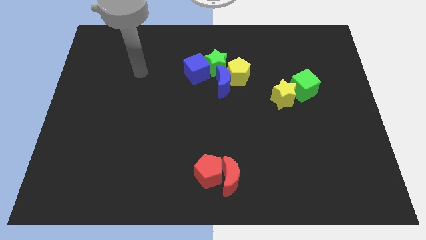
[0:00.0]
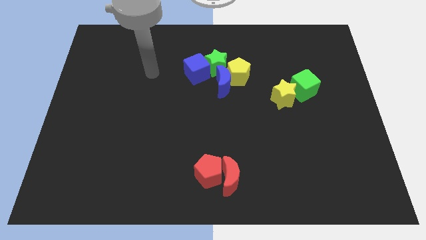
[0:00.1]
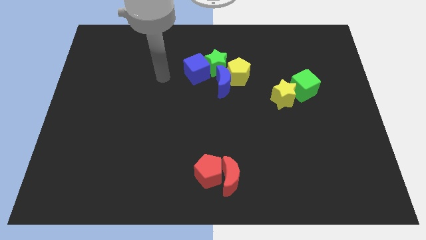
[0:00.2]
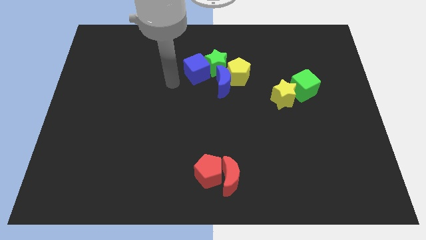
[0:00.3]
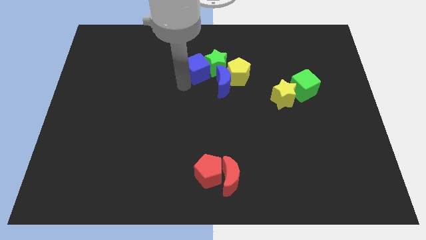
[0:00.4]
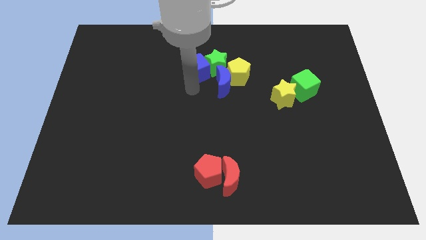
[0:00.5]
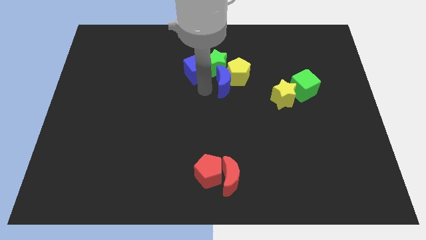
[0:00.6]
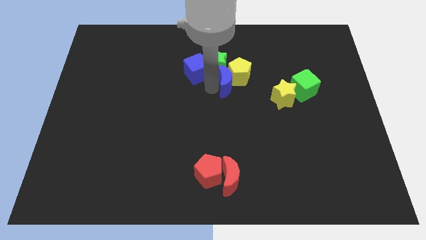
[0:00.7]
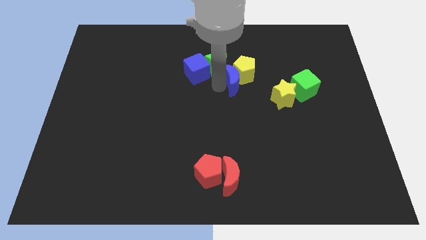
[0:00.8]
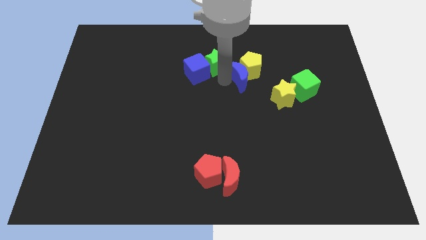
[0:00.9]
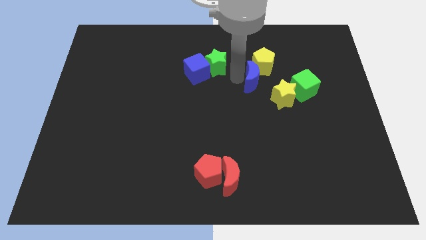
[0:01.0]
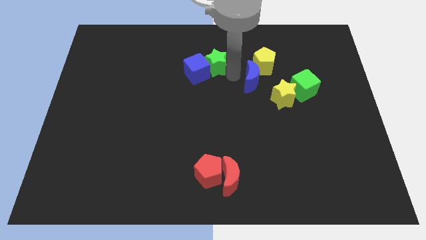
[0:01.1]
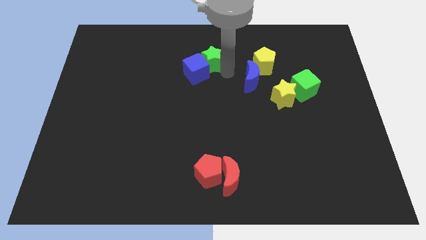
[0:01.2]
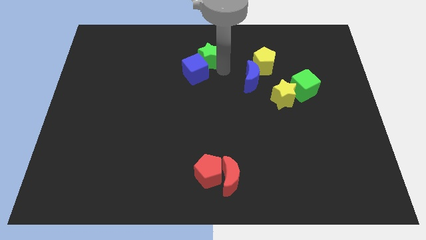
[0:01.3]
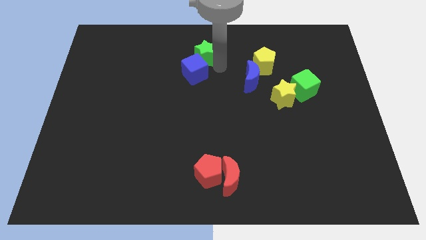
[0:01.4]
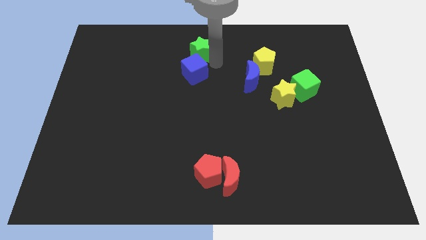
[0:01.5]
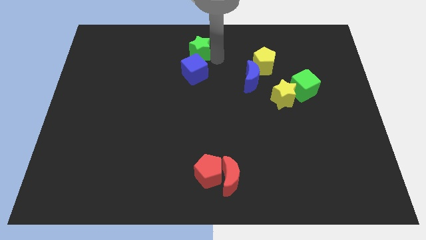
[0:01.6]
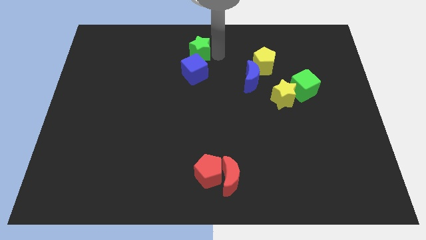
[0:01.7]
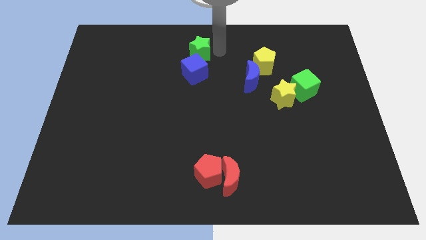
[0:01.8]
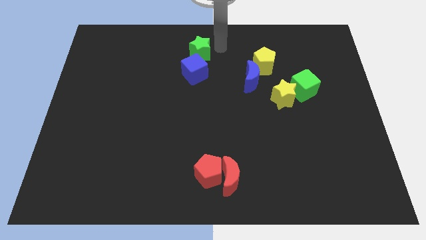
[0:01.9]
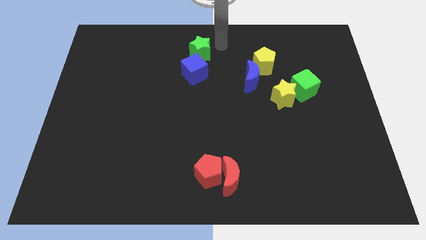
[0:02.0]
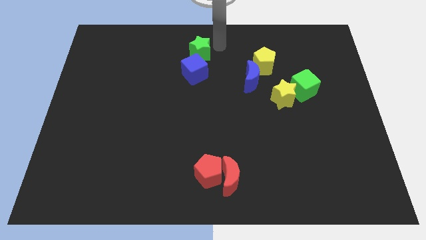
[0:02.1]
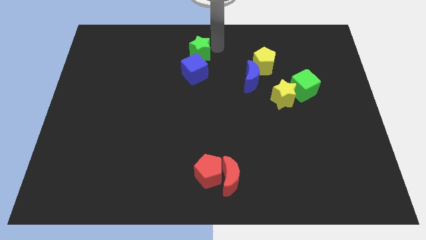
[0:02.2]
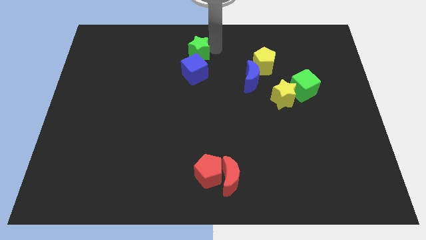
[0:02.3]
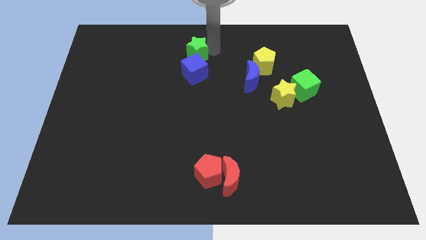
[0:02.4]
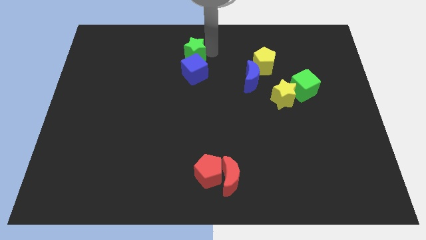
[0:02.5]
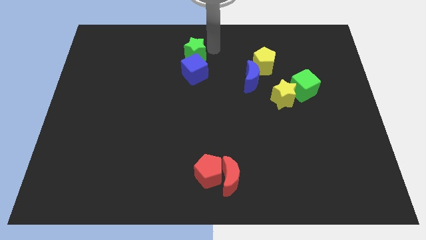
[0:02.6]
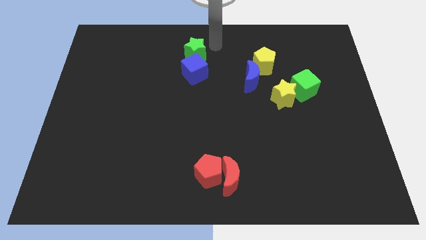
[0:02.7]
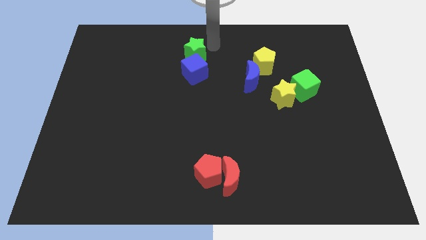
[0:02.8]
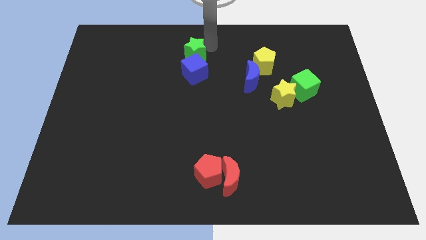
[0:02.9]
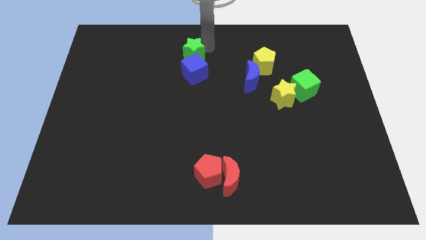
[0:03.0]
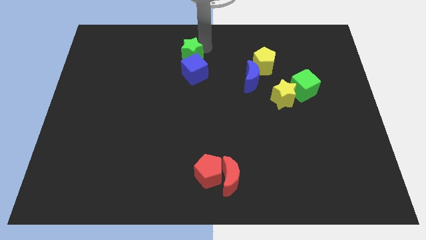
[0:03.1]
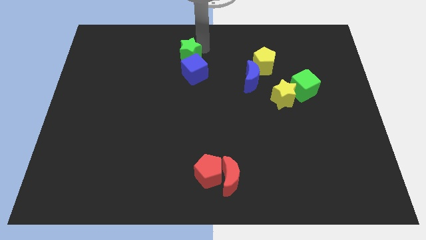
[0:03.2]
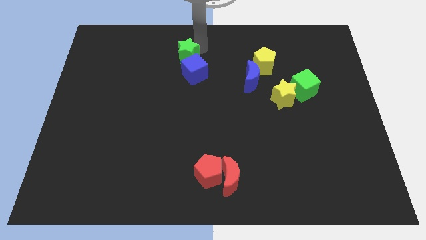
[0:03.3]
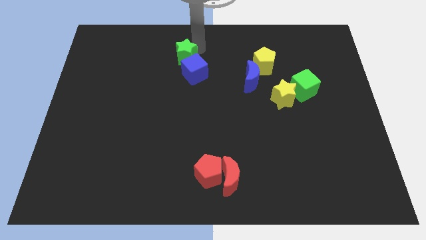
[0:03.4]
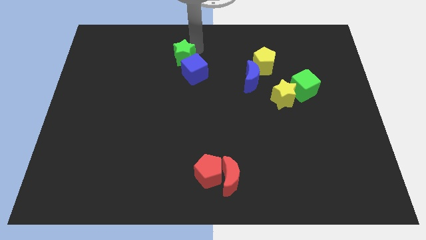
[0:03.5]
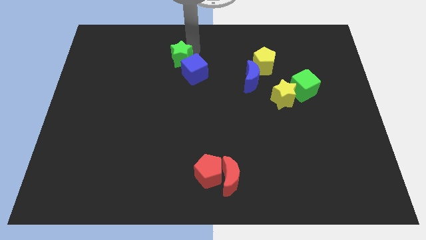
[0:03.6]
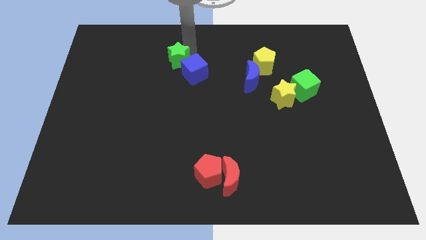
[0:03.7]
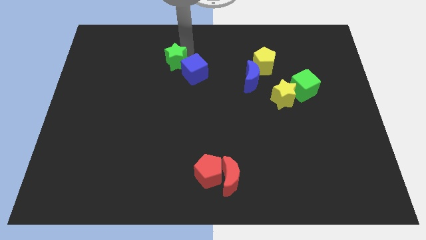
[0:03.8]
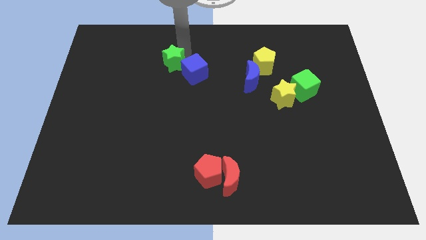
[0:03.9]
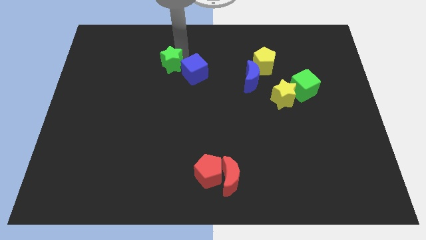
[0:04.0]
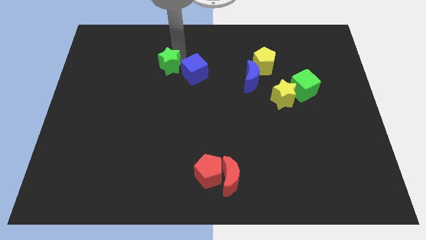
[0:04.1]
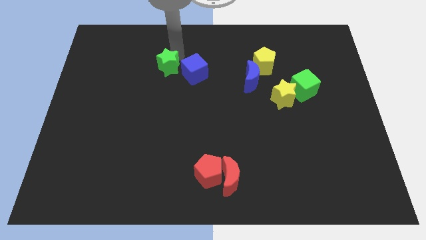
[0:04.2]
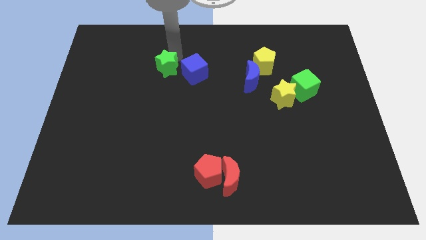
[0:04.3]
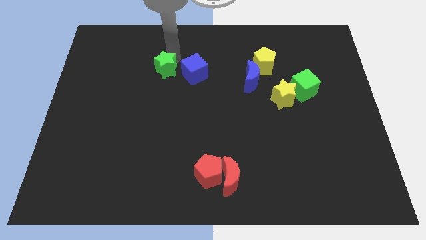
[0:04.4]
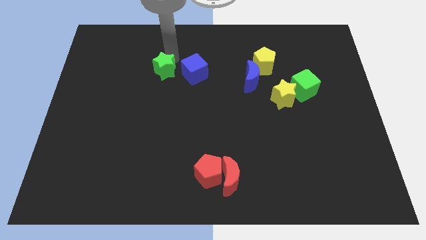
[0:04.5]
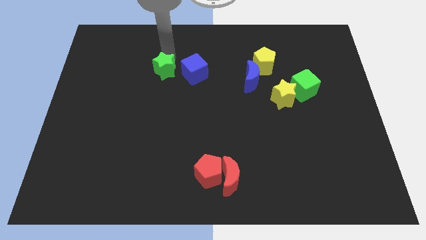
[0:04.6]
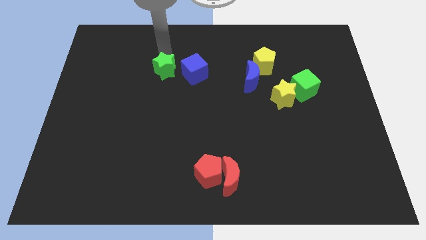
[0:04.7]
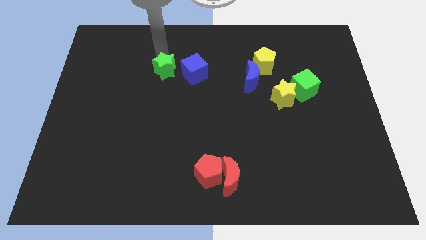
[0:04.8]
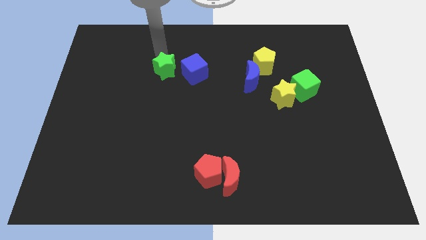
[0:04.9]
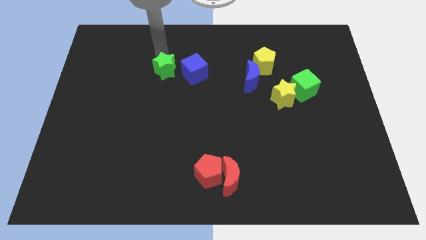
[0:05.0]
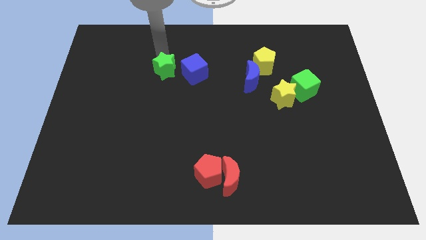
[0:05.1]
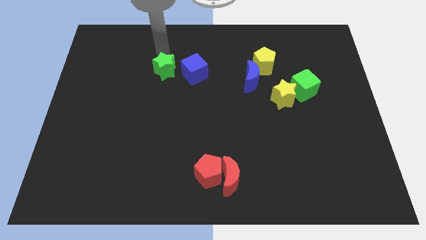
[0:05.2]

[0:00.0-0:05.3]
slide the green star down and left a little

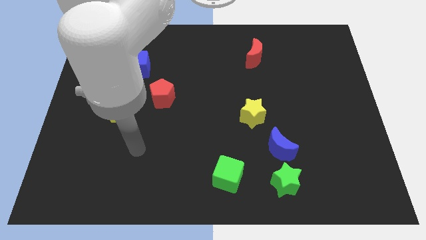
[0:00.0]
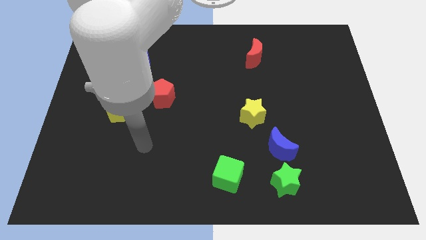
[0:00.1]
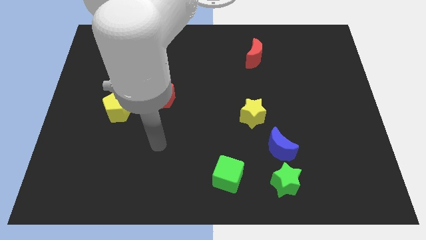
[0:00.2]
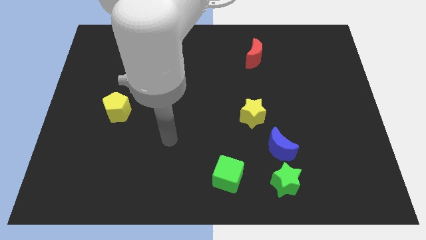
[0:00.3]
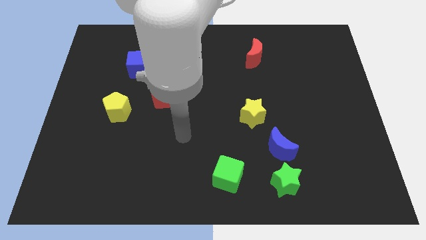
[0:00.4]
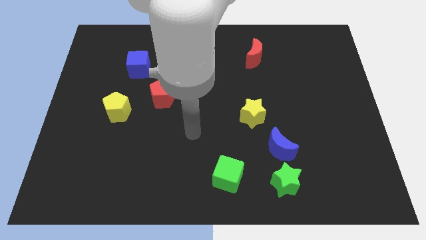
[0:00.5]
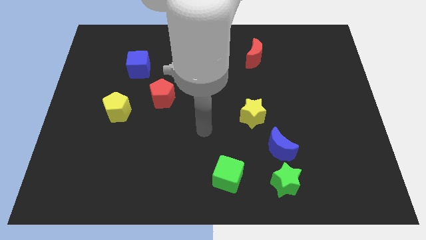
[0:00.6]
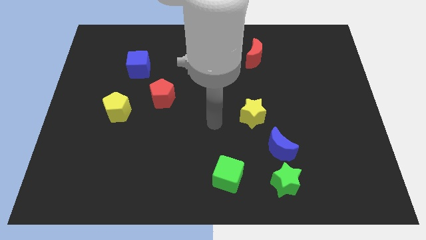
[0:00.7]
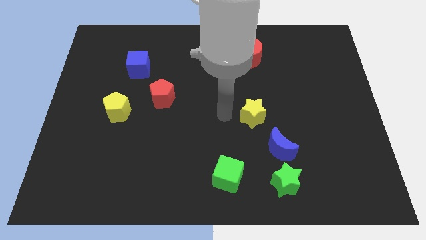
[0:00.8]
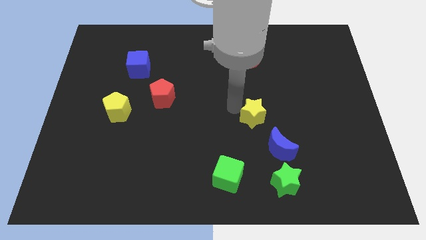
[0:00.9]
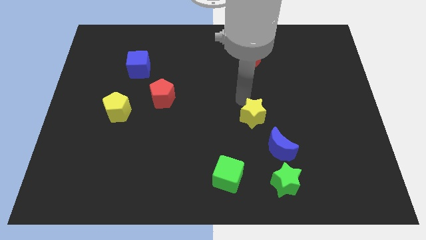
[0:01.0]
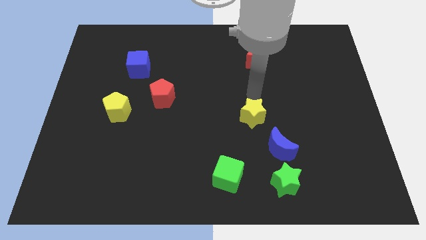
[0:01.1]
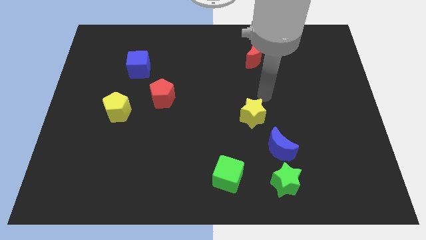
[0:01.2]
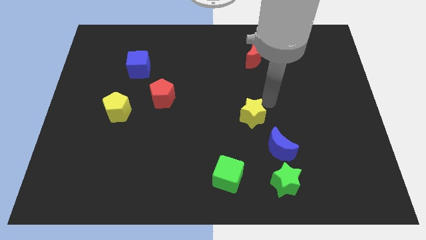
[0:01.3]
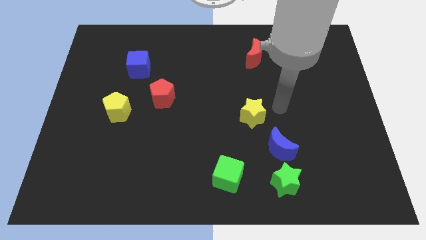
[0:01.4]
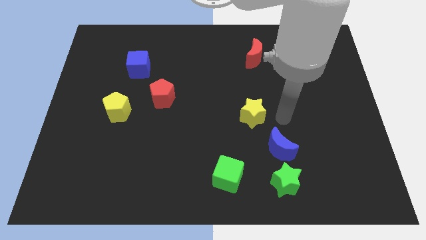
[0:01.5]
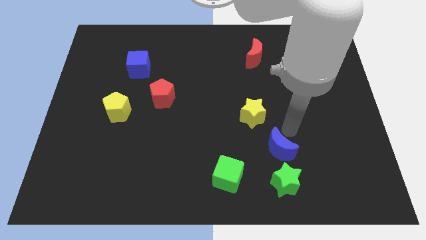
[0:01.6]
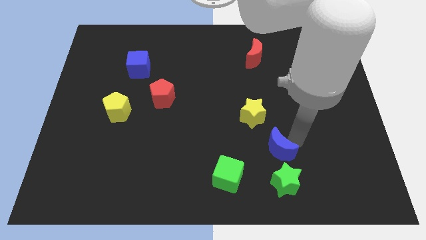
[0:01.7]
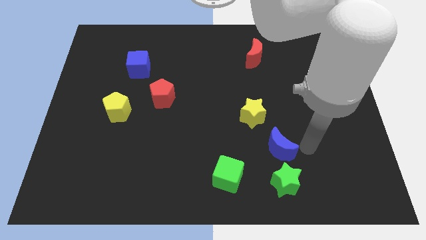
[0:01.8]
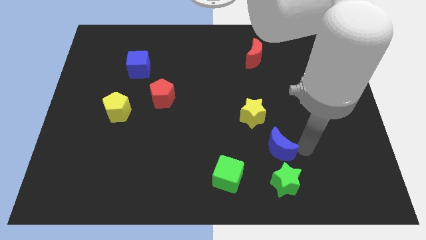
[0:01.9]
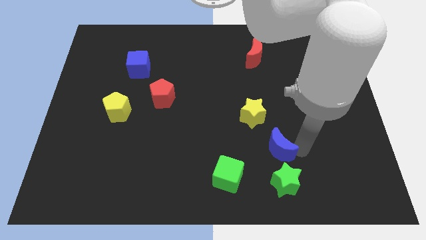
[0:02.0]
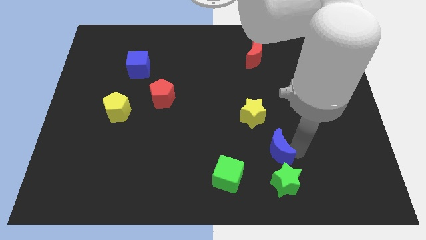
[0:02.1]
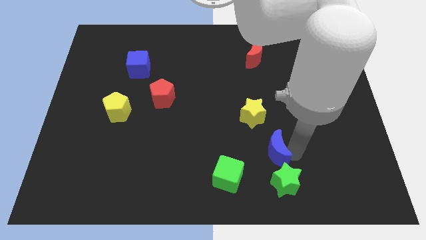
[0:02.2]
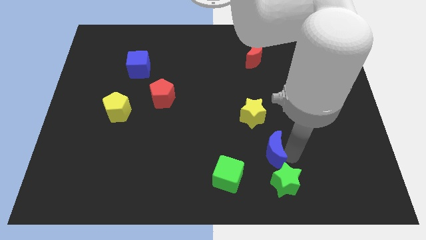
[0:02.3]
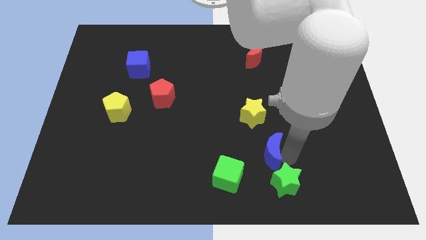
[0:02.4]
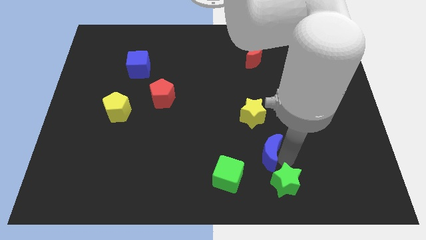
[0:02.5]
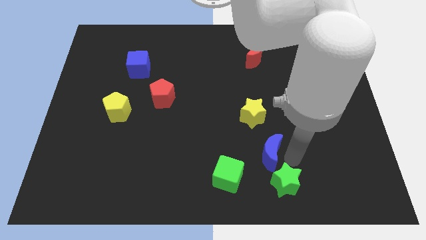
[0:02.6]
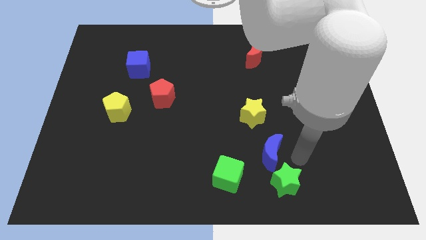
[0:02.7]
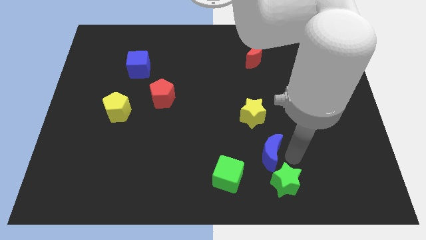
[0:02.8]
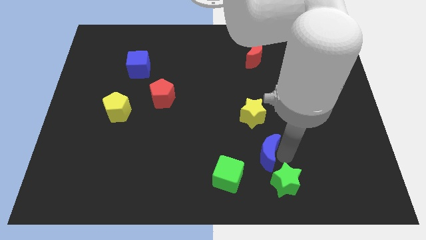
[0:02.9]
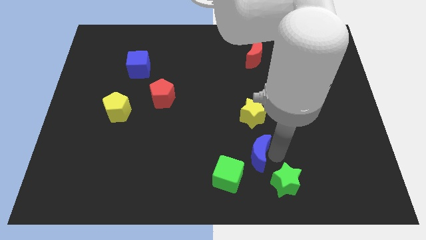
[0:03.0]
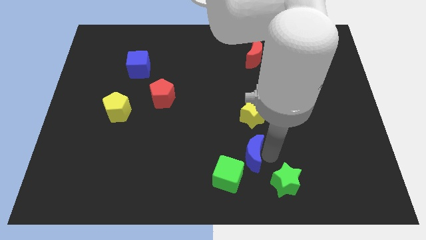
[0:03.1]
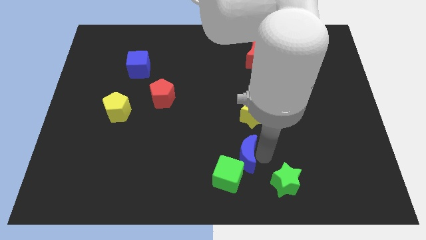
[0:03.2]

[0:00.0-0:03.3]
push the blue moon to the left somewhat
